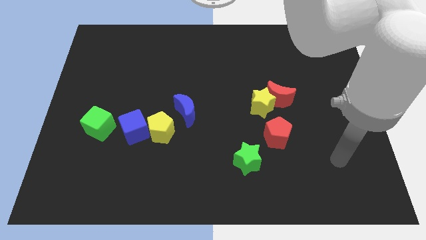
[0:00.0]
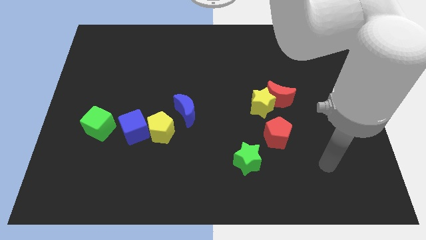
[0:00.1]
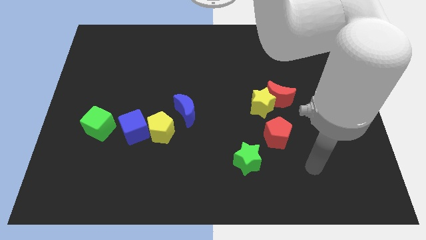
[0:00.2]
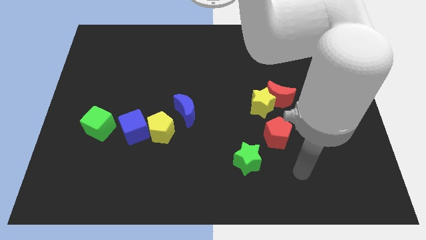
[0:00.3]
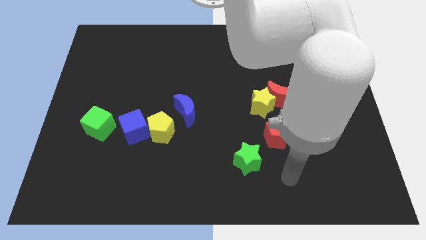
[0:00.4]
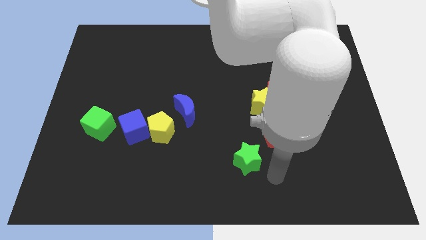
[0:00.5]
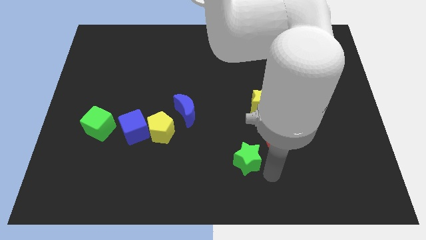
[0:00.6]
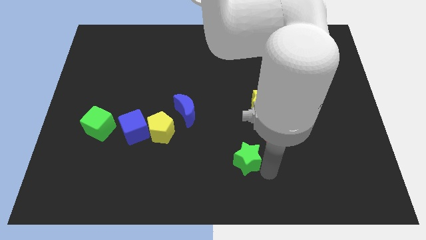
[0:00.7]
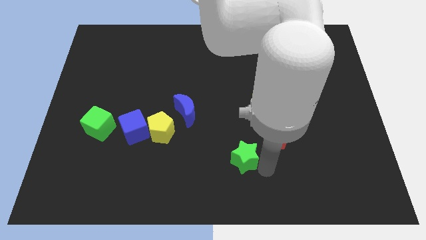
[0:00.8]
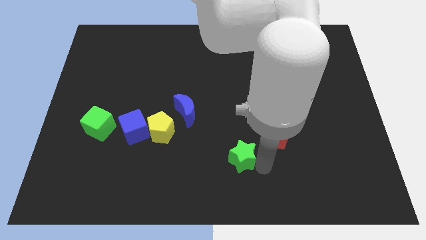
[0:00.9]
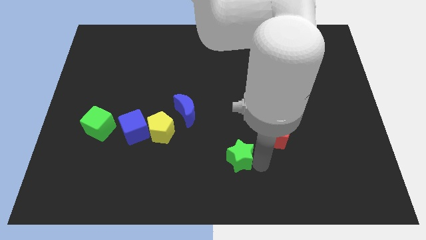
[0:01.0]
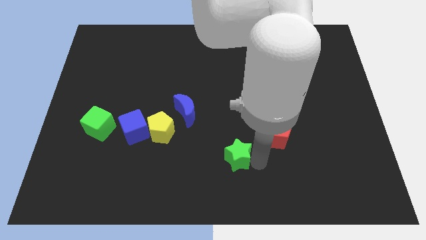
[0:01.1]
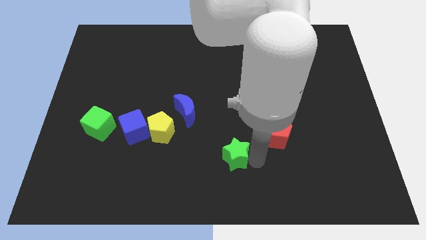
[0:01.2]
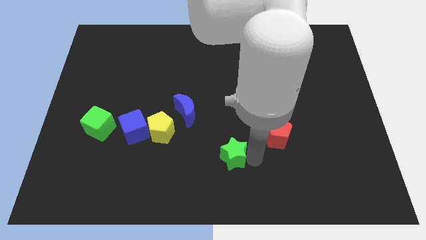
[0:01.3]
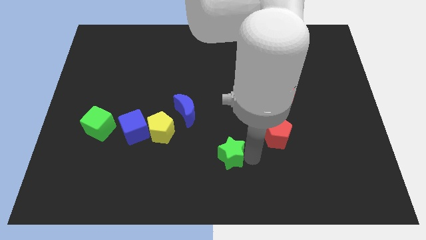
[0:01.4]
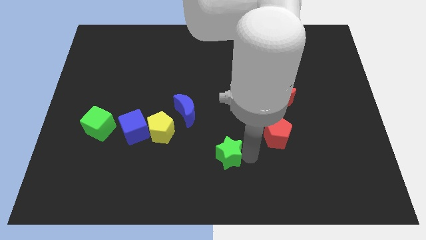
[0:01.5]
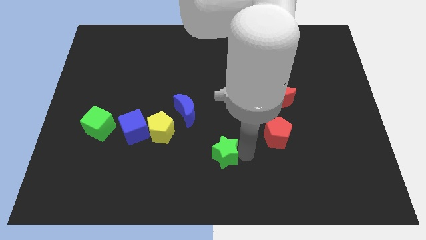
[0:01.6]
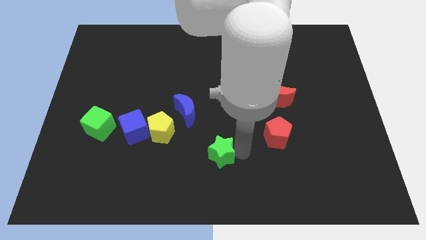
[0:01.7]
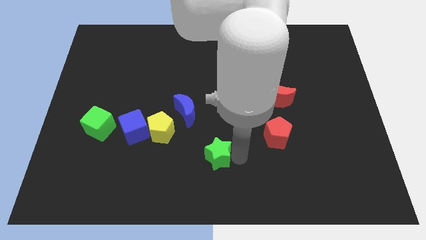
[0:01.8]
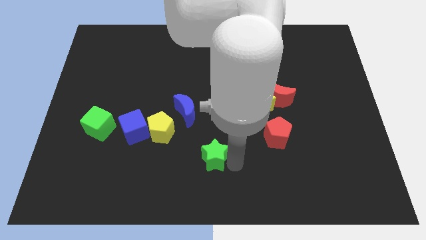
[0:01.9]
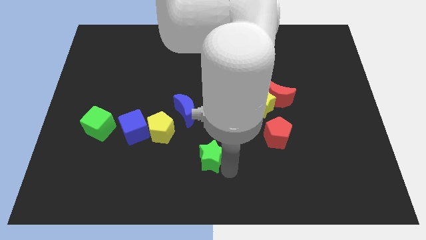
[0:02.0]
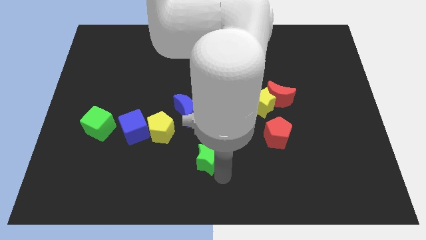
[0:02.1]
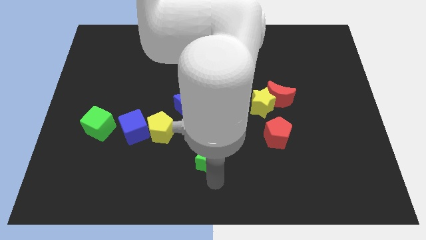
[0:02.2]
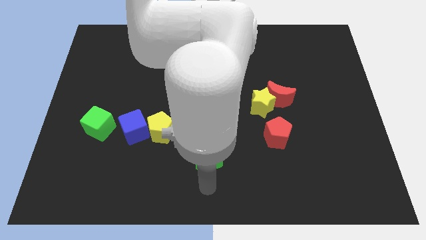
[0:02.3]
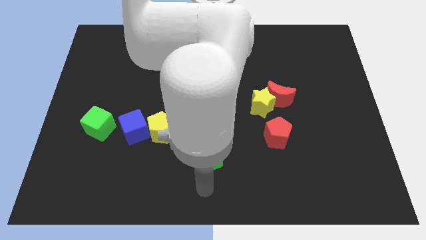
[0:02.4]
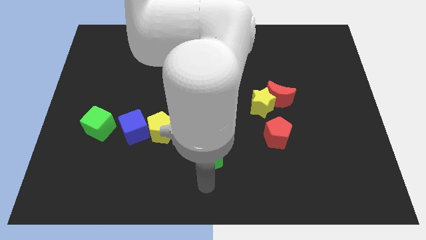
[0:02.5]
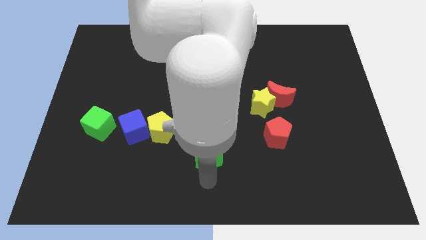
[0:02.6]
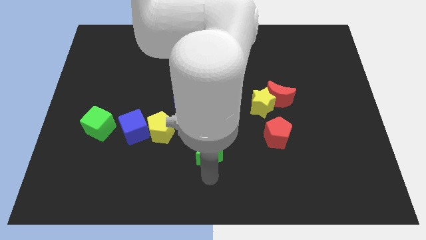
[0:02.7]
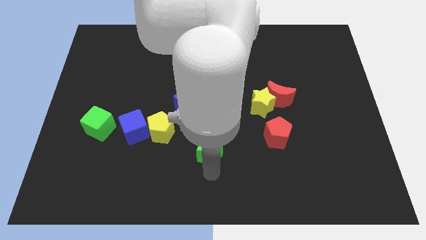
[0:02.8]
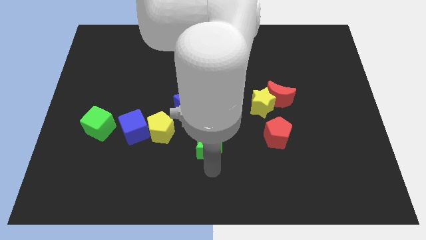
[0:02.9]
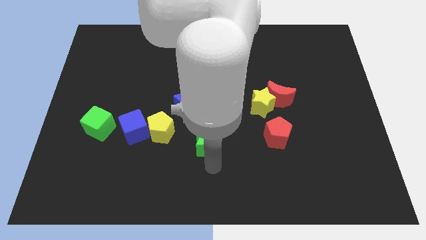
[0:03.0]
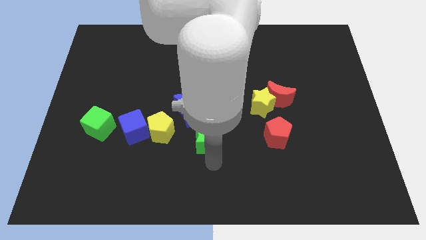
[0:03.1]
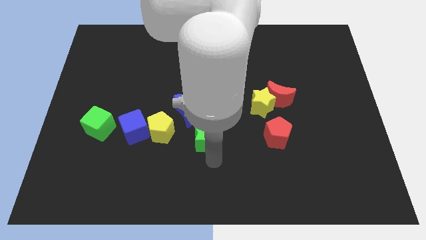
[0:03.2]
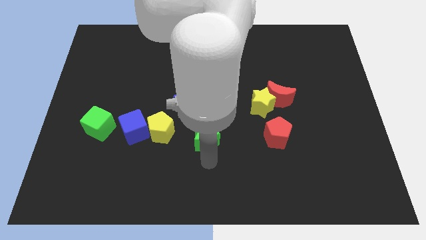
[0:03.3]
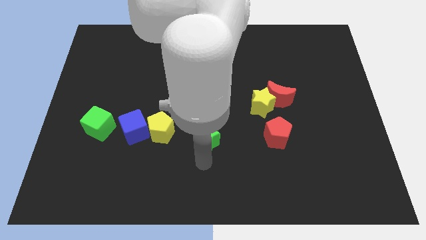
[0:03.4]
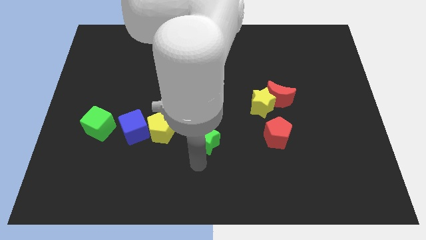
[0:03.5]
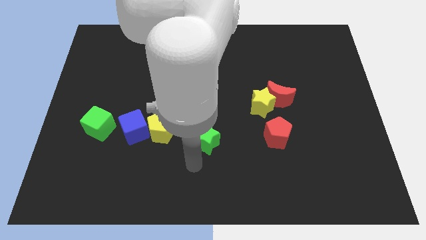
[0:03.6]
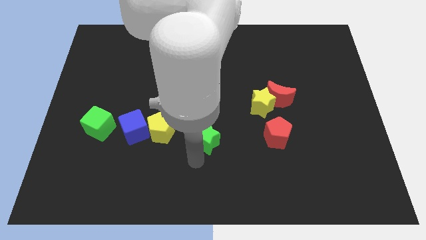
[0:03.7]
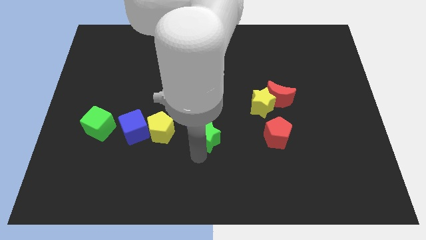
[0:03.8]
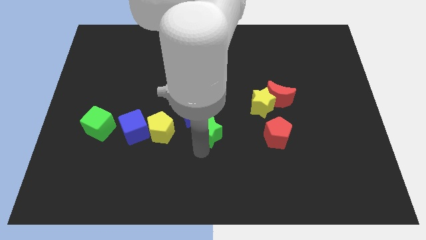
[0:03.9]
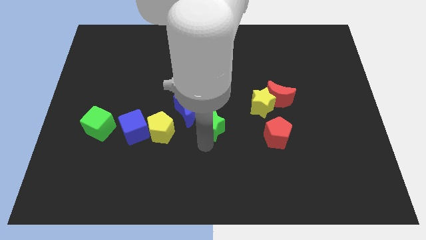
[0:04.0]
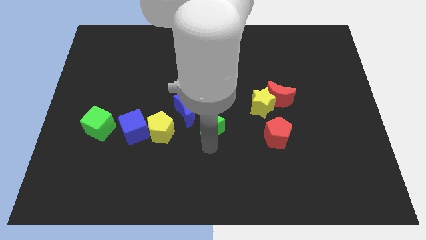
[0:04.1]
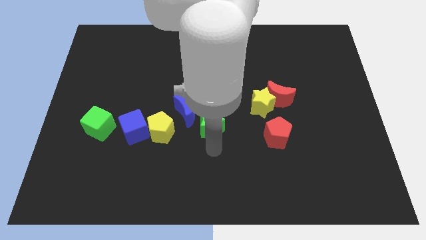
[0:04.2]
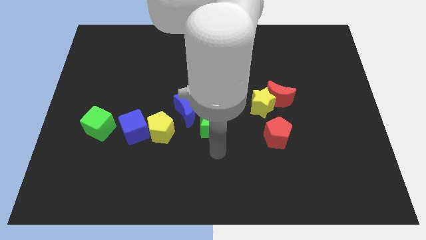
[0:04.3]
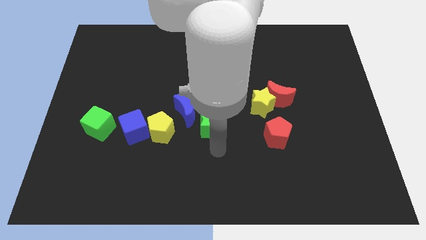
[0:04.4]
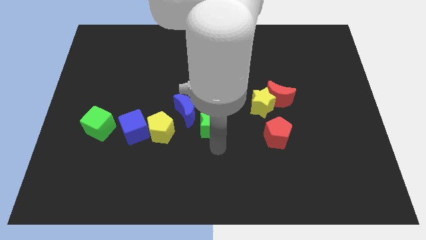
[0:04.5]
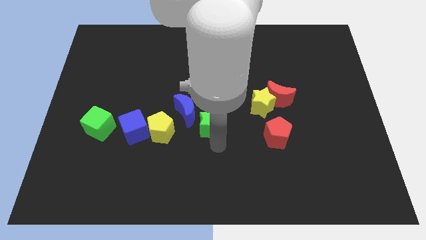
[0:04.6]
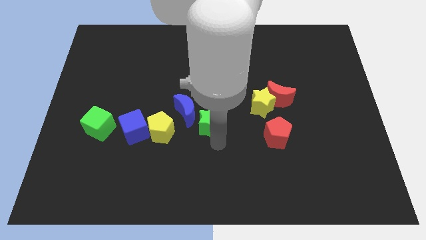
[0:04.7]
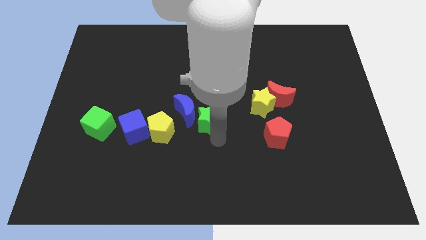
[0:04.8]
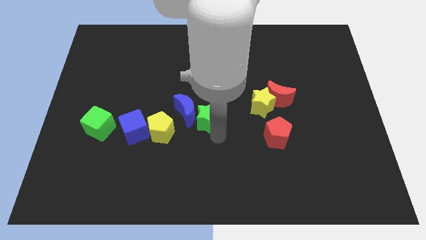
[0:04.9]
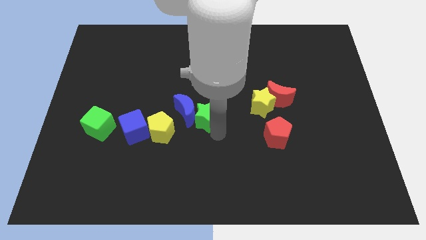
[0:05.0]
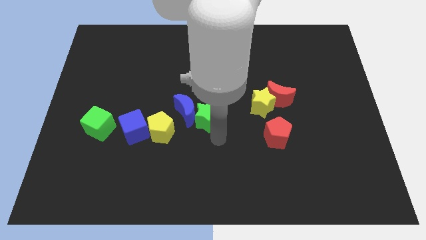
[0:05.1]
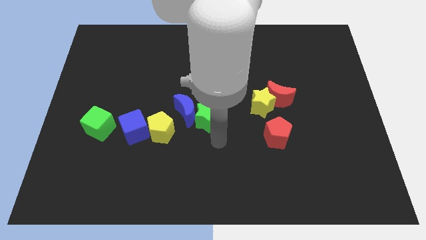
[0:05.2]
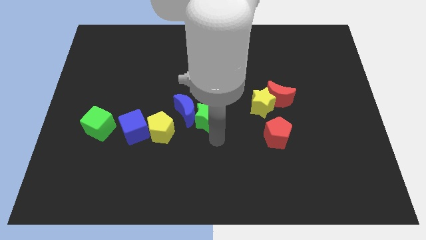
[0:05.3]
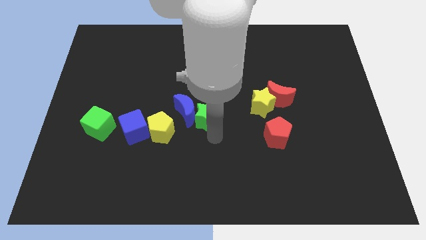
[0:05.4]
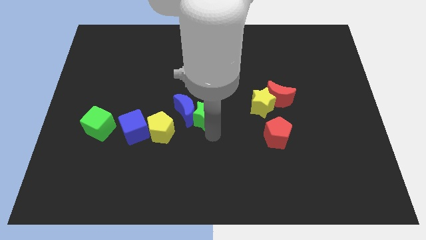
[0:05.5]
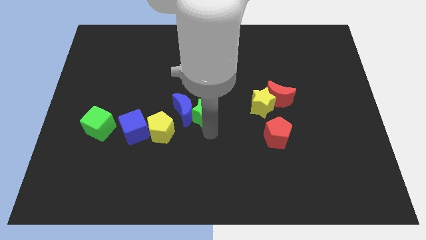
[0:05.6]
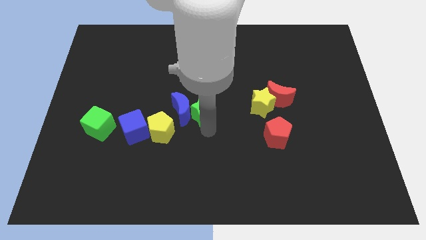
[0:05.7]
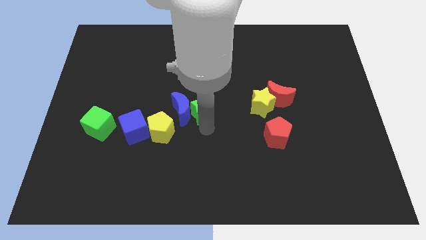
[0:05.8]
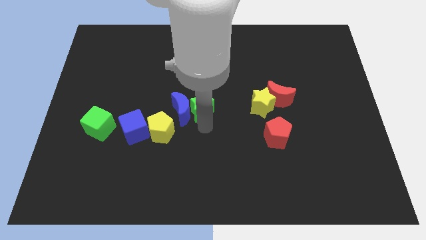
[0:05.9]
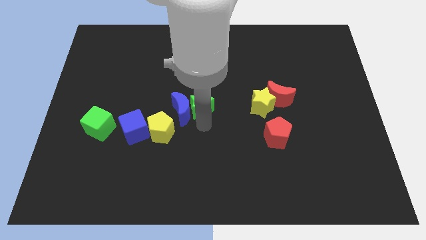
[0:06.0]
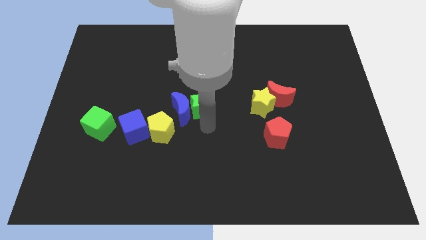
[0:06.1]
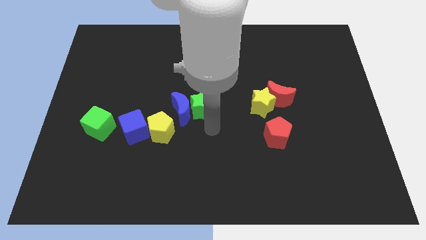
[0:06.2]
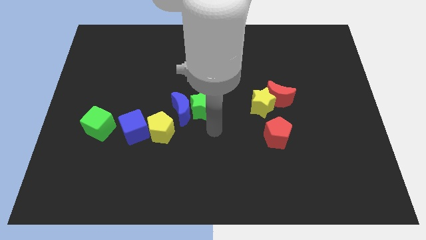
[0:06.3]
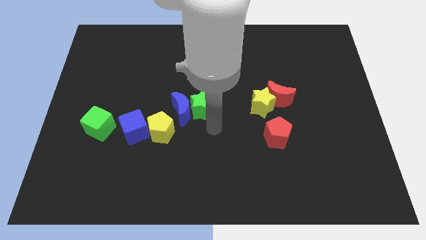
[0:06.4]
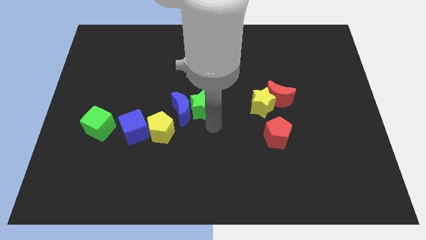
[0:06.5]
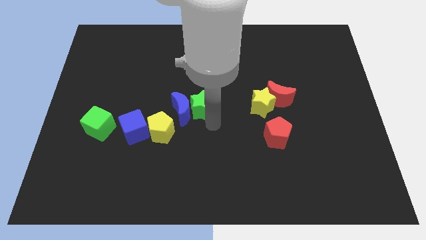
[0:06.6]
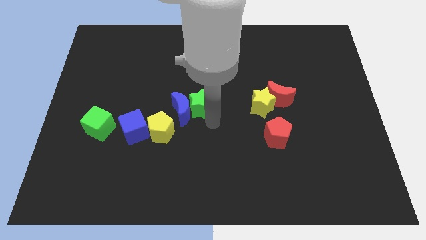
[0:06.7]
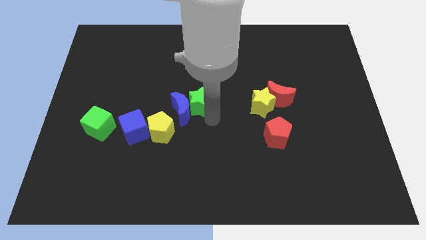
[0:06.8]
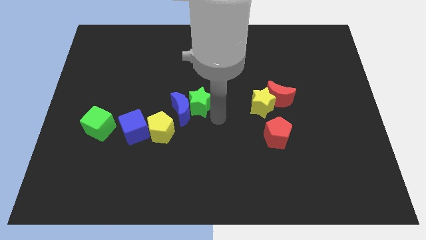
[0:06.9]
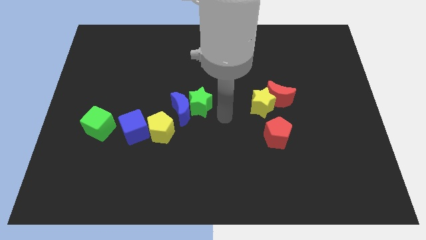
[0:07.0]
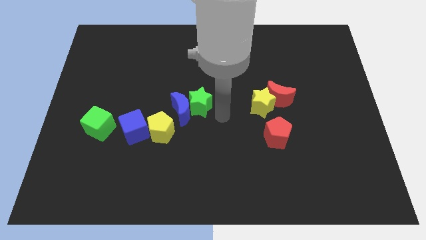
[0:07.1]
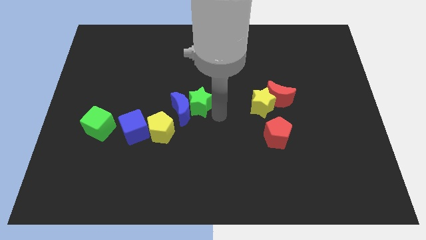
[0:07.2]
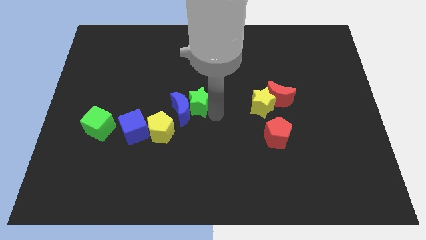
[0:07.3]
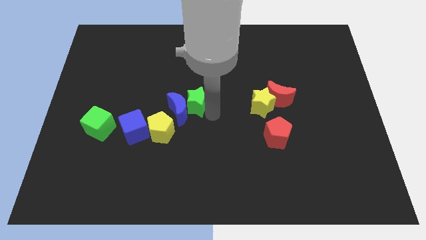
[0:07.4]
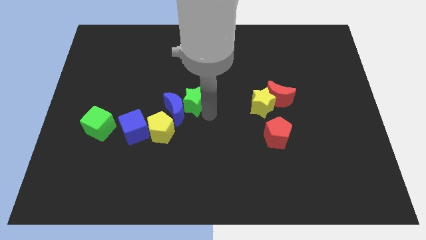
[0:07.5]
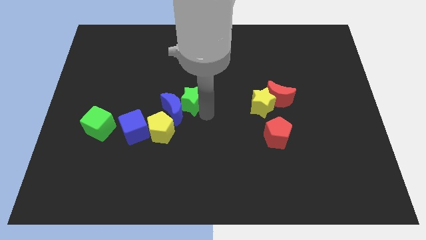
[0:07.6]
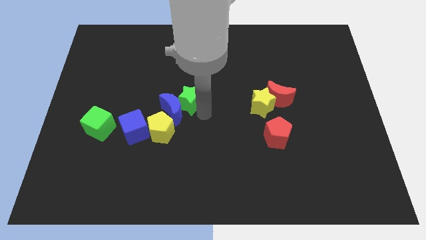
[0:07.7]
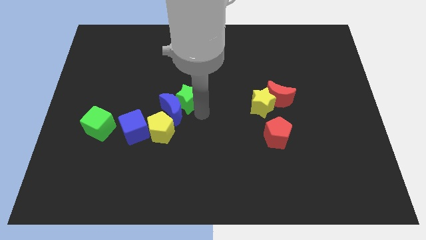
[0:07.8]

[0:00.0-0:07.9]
move the green star up and then to the left

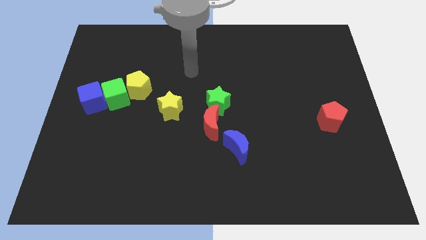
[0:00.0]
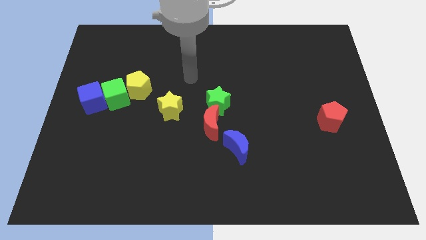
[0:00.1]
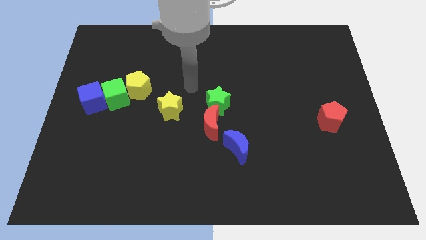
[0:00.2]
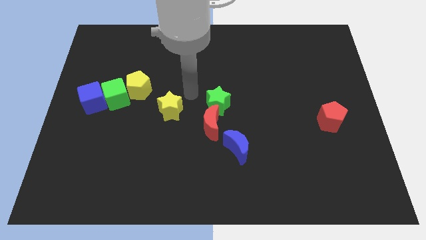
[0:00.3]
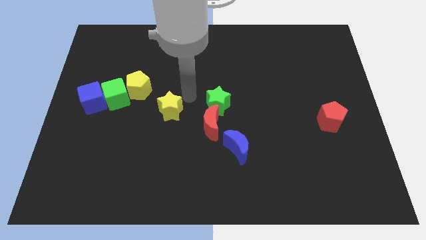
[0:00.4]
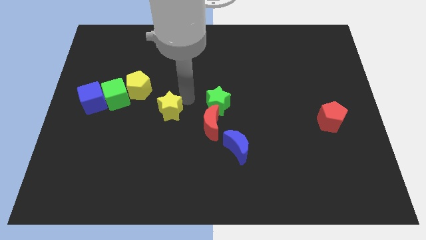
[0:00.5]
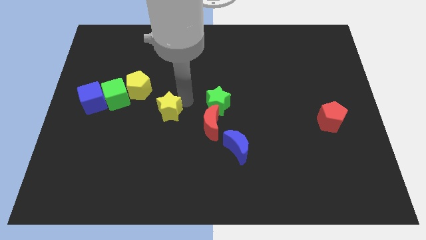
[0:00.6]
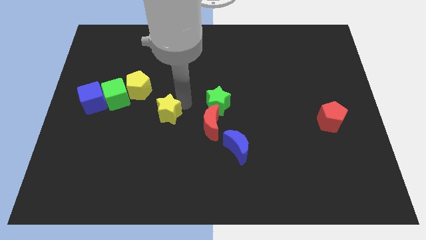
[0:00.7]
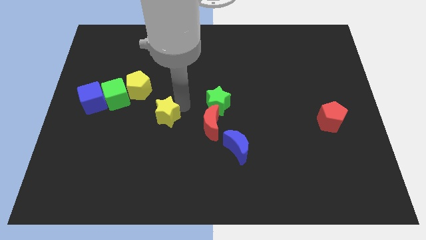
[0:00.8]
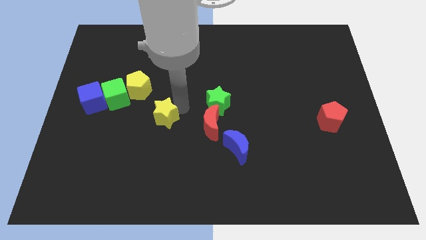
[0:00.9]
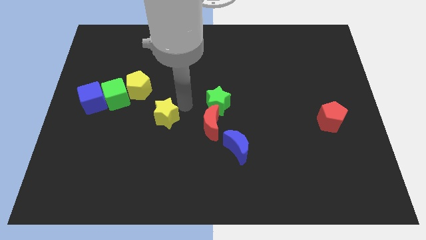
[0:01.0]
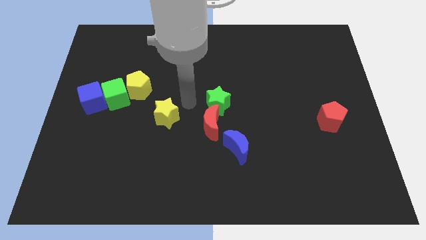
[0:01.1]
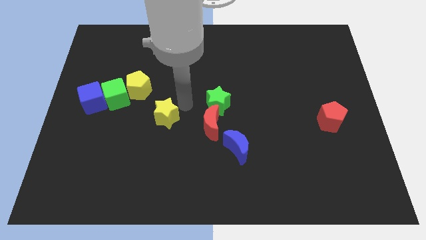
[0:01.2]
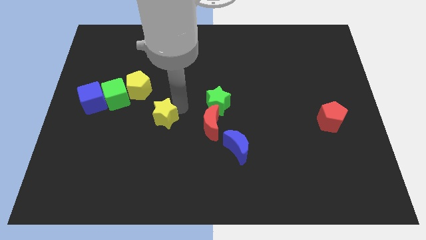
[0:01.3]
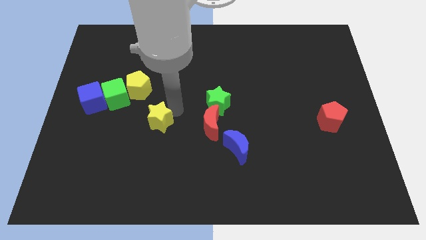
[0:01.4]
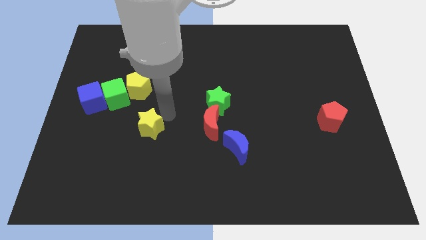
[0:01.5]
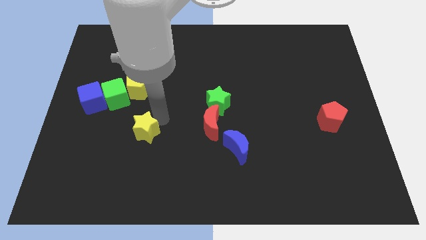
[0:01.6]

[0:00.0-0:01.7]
slightly push the yellow star down and left diagonally
